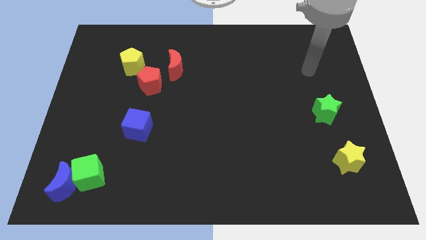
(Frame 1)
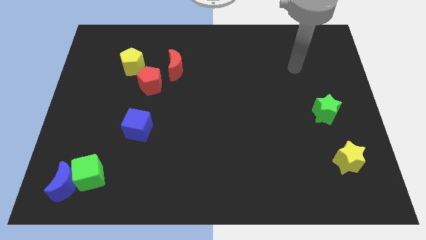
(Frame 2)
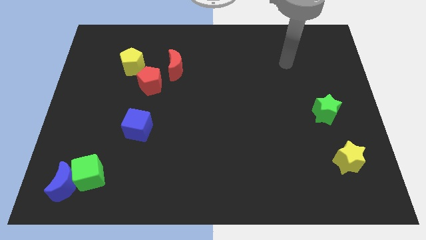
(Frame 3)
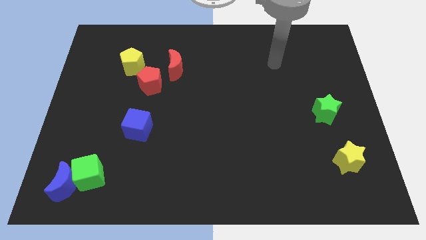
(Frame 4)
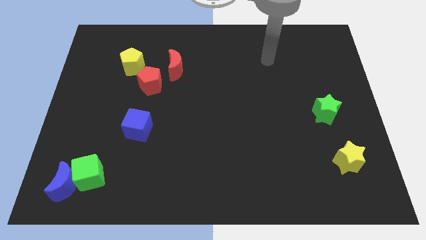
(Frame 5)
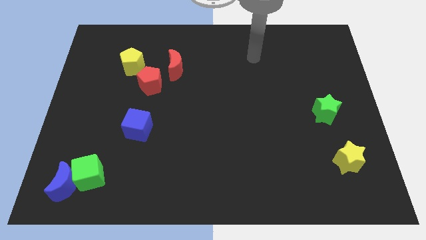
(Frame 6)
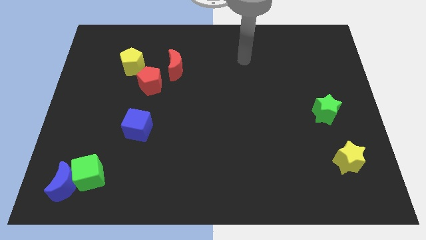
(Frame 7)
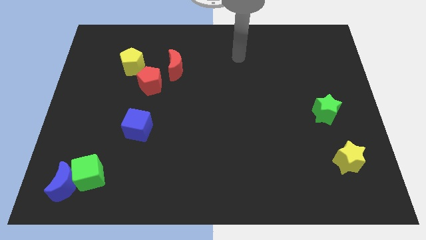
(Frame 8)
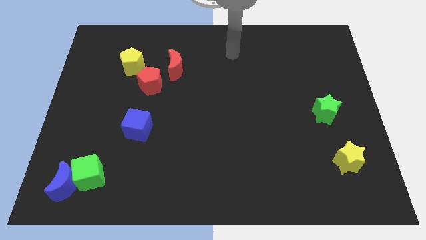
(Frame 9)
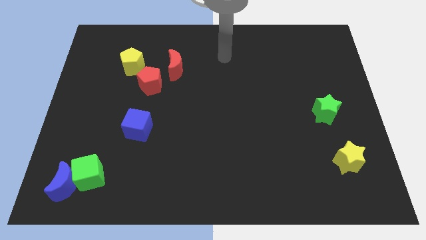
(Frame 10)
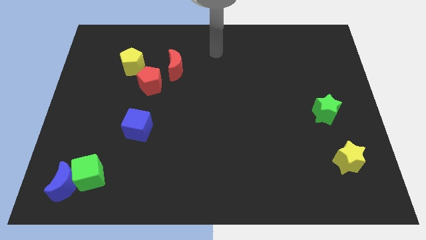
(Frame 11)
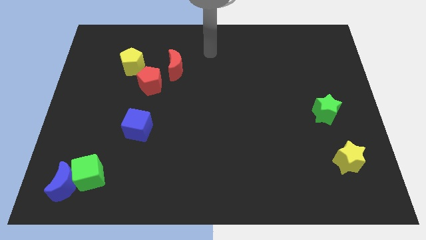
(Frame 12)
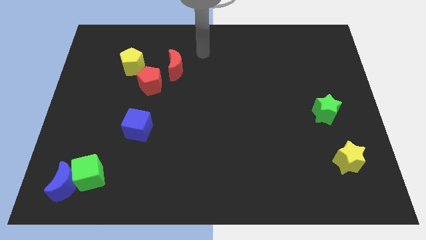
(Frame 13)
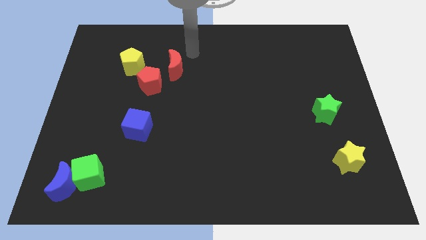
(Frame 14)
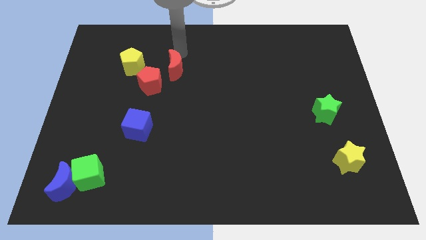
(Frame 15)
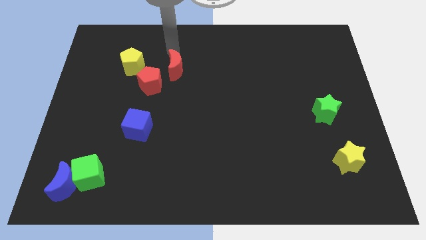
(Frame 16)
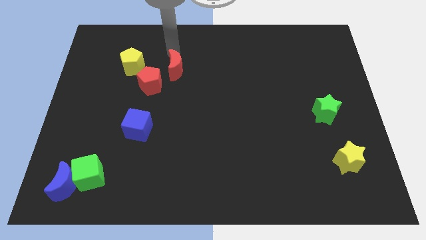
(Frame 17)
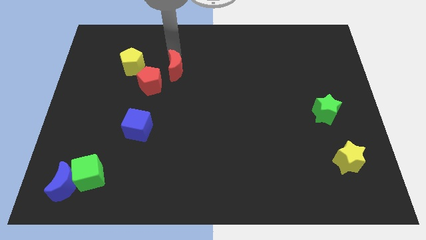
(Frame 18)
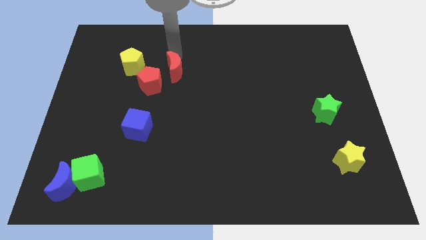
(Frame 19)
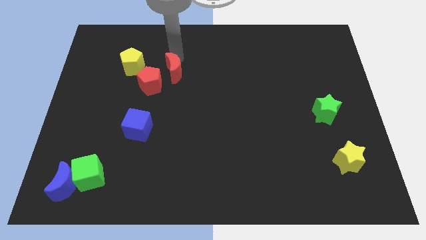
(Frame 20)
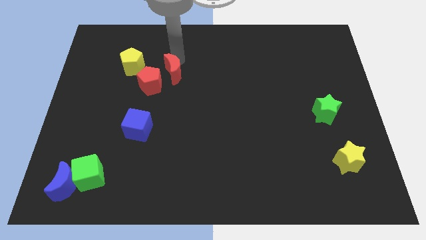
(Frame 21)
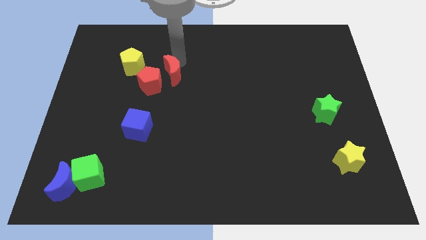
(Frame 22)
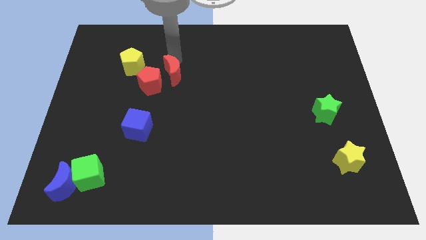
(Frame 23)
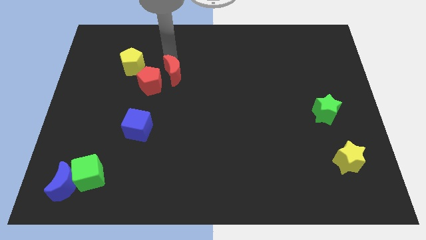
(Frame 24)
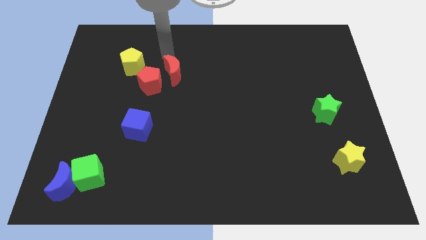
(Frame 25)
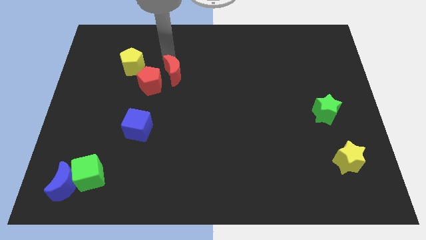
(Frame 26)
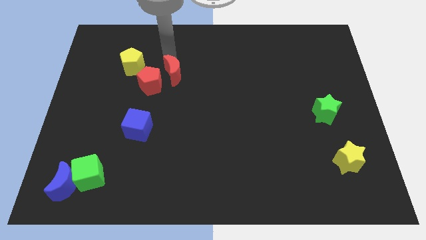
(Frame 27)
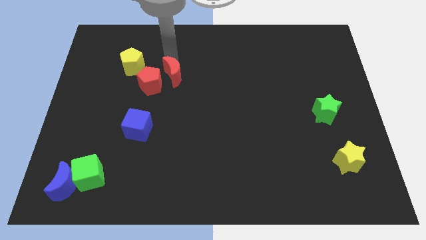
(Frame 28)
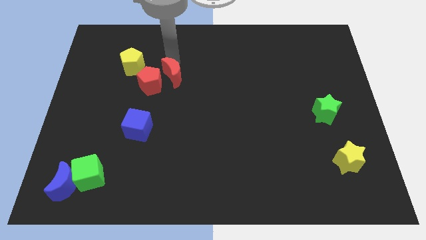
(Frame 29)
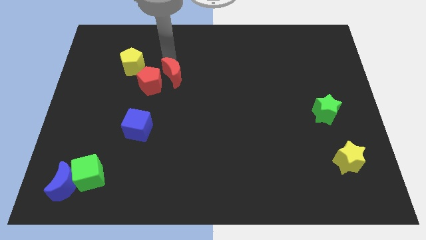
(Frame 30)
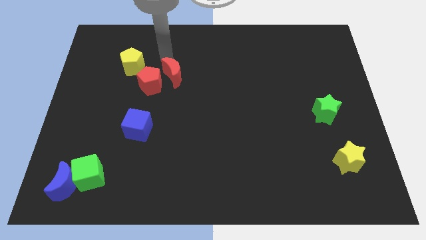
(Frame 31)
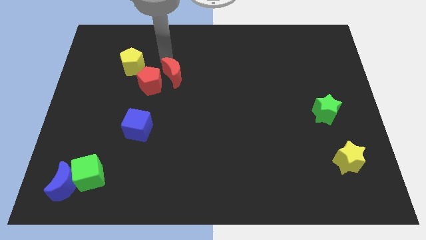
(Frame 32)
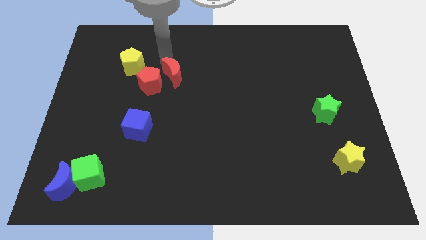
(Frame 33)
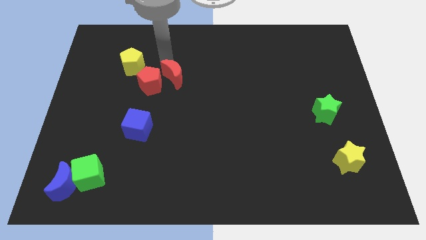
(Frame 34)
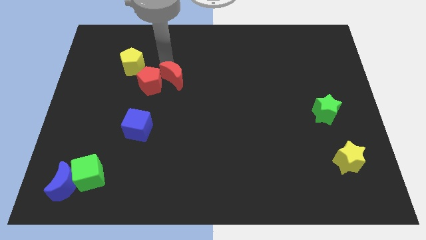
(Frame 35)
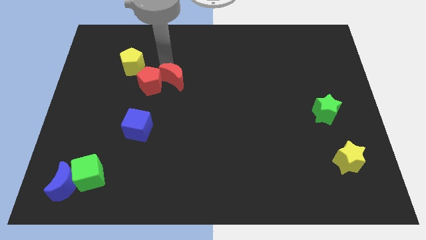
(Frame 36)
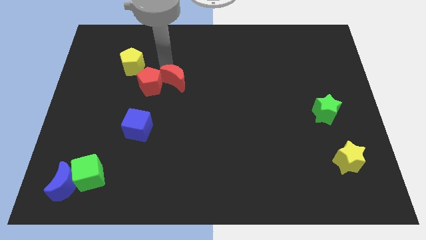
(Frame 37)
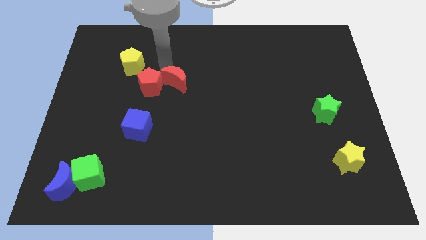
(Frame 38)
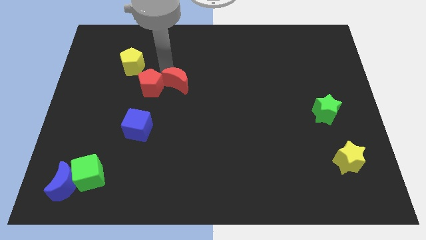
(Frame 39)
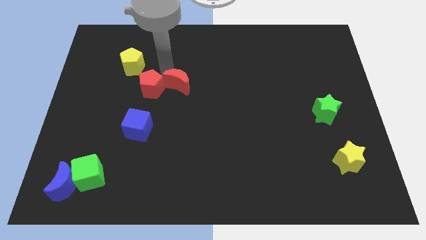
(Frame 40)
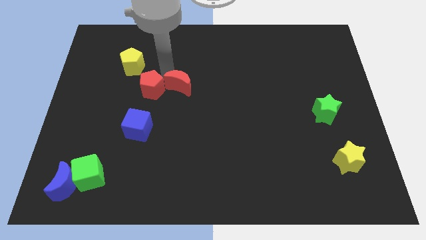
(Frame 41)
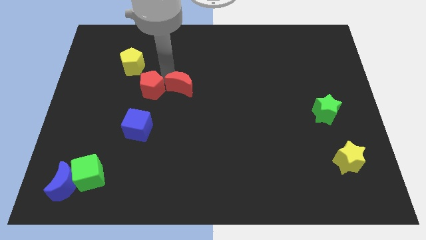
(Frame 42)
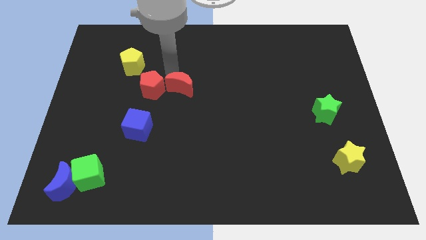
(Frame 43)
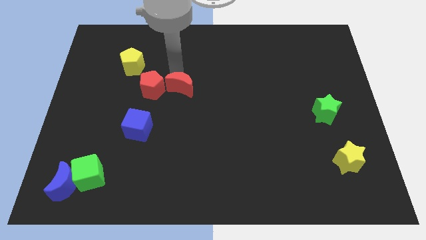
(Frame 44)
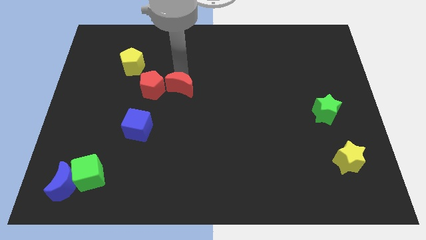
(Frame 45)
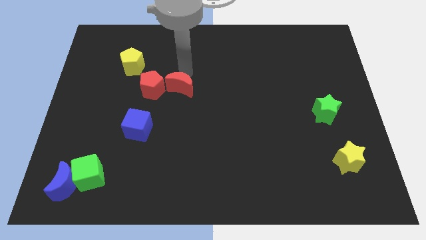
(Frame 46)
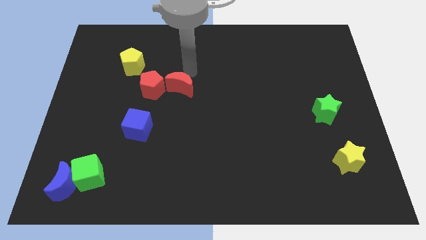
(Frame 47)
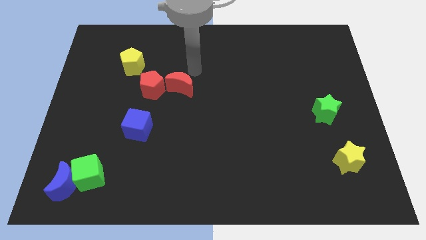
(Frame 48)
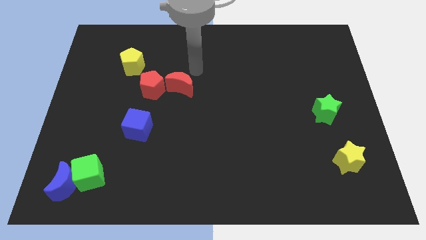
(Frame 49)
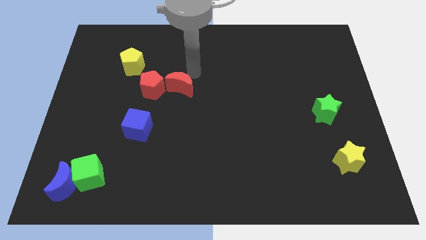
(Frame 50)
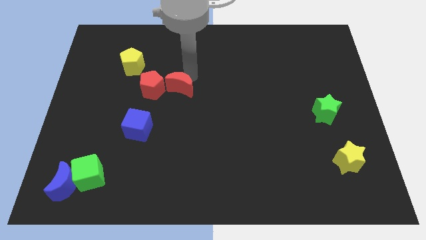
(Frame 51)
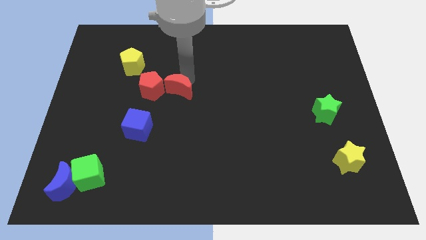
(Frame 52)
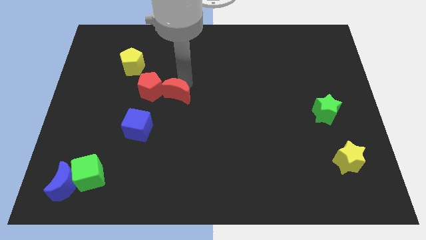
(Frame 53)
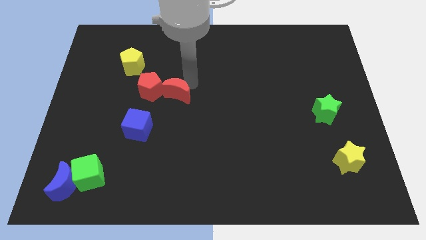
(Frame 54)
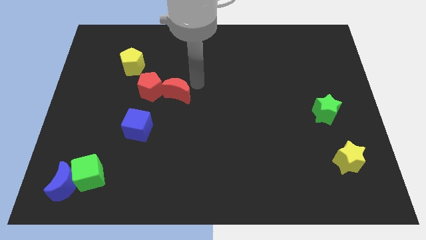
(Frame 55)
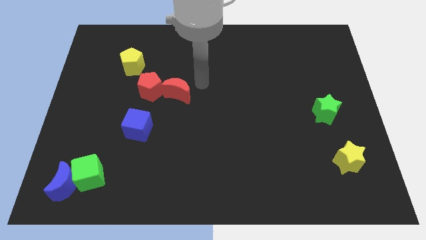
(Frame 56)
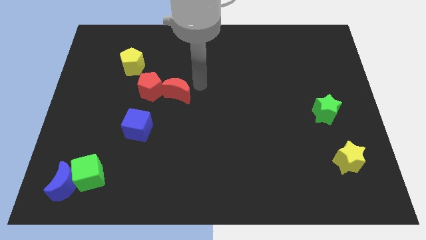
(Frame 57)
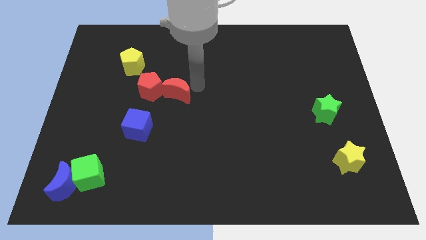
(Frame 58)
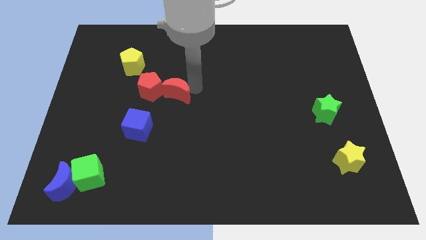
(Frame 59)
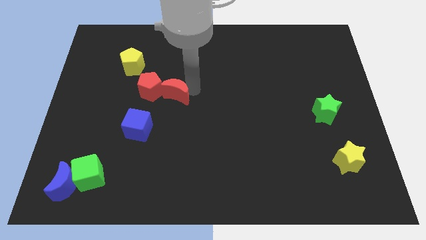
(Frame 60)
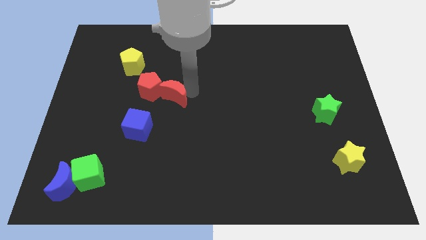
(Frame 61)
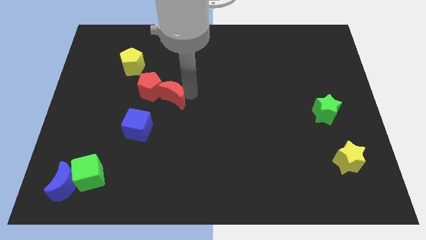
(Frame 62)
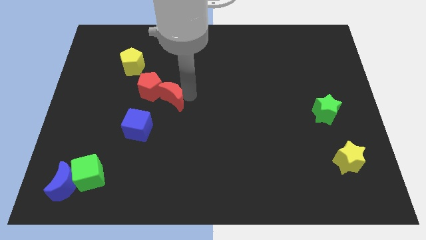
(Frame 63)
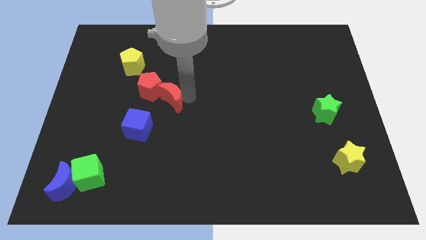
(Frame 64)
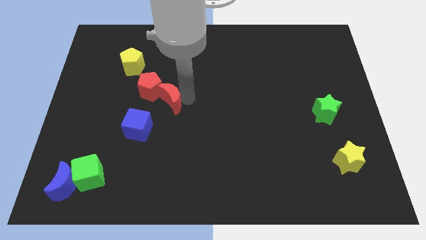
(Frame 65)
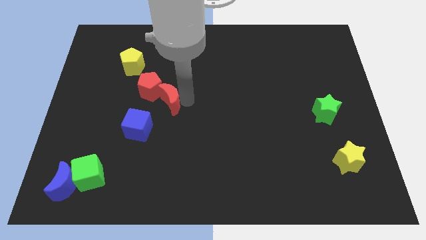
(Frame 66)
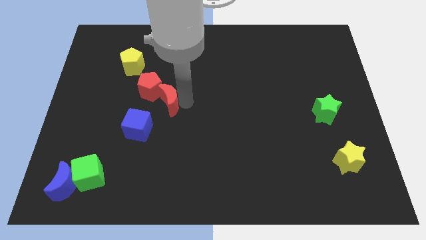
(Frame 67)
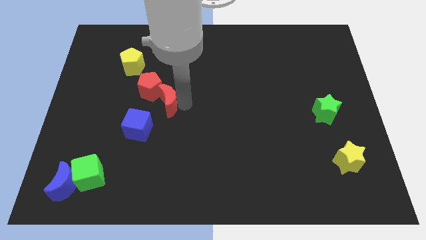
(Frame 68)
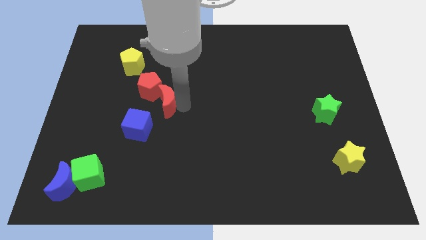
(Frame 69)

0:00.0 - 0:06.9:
slide the red moon down and left diagonally a little bit

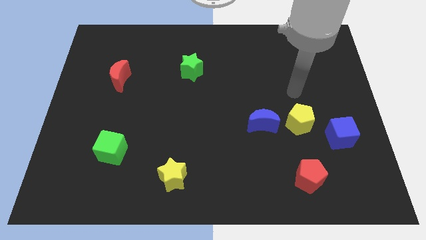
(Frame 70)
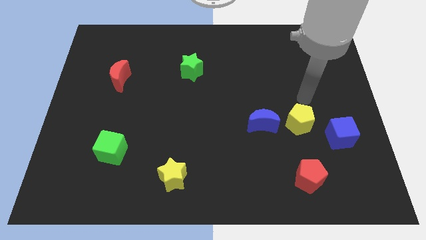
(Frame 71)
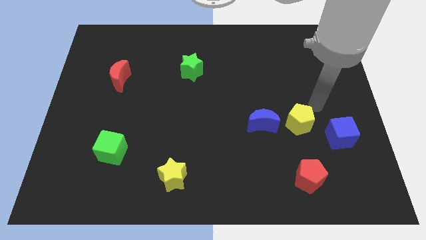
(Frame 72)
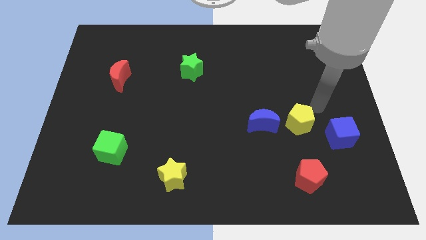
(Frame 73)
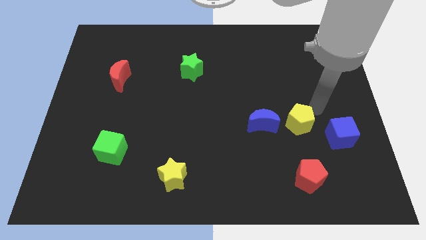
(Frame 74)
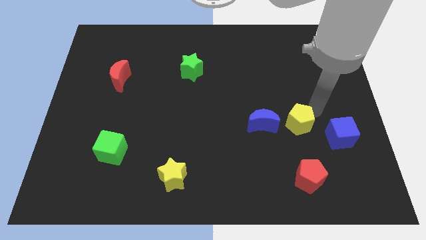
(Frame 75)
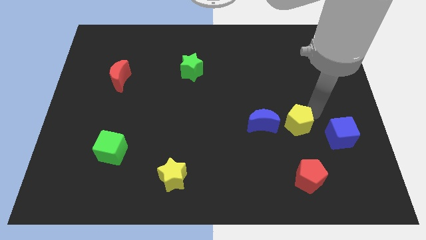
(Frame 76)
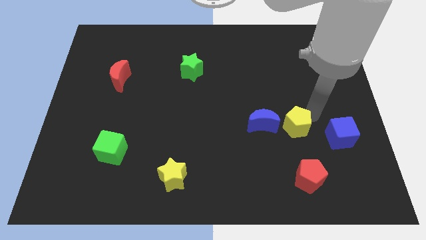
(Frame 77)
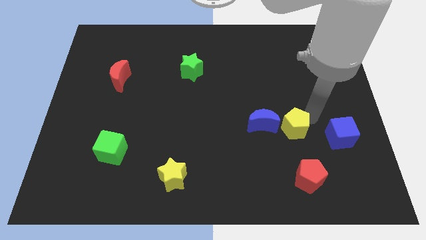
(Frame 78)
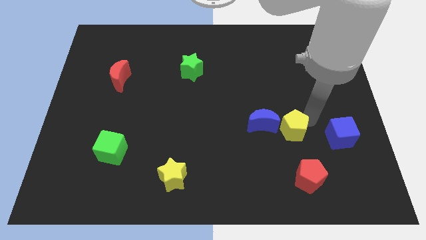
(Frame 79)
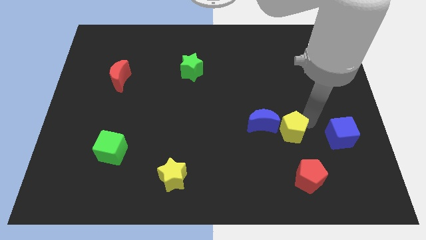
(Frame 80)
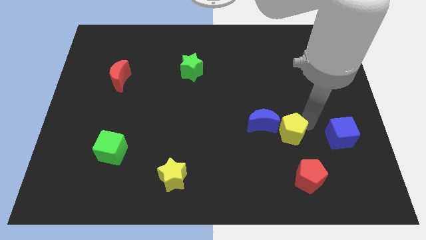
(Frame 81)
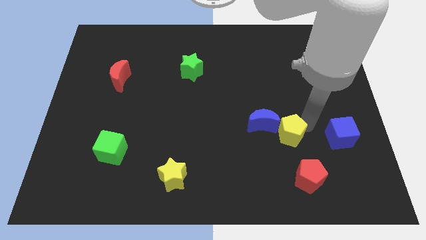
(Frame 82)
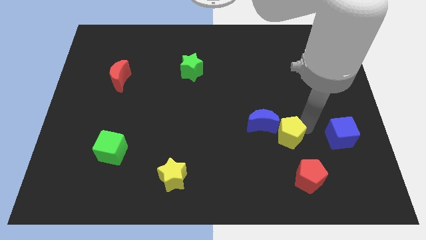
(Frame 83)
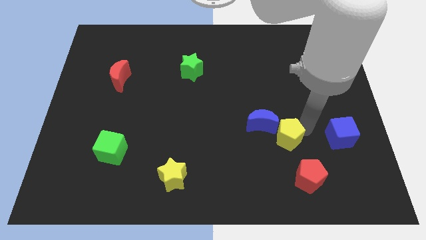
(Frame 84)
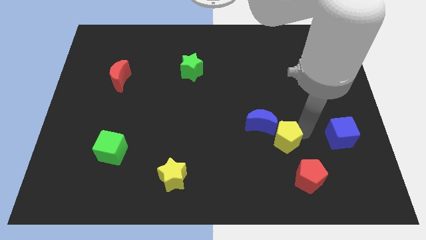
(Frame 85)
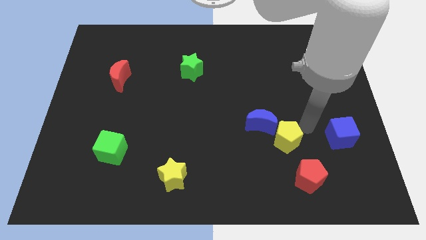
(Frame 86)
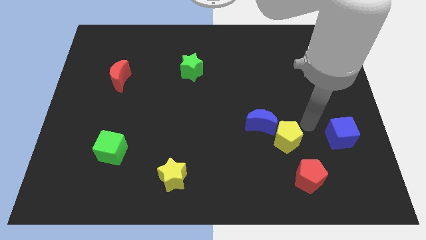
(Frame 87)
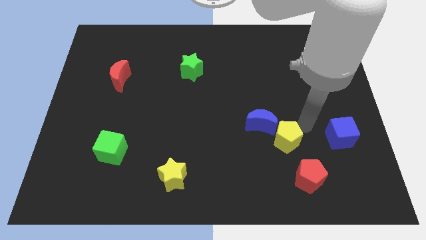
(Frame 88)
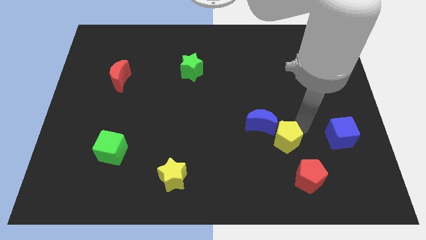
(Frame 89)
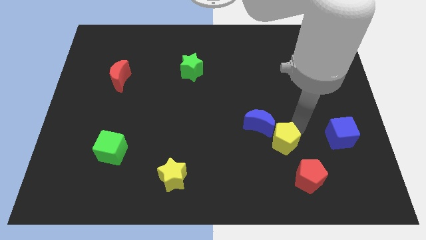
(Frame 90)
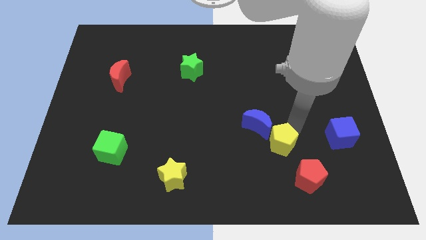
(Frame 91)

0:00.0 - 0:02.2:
slide the yellow pentagon downwards and then to the left a little
